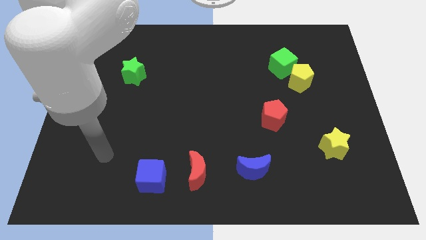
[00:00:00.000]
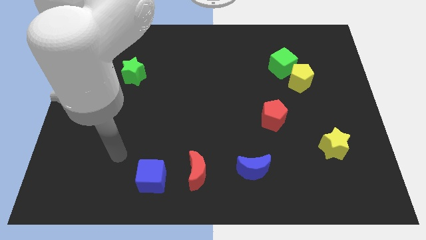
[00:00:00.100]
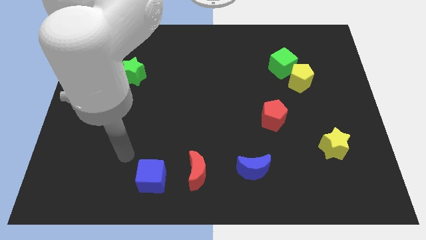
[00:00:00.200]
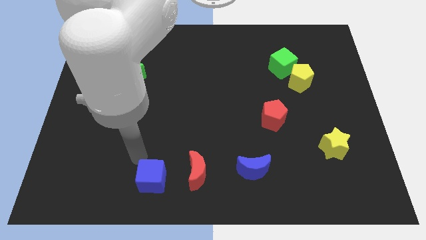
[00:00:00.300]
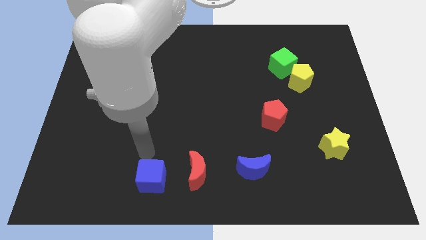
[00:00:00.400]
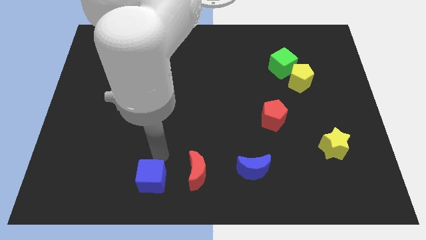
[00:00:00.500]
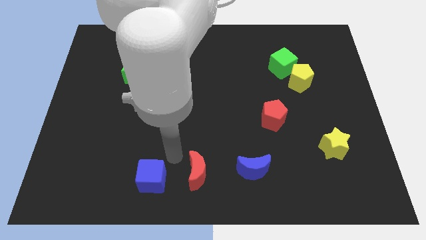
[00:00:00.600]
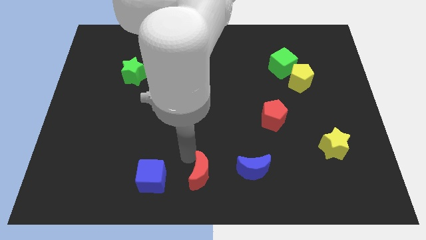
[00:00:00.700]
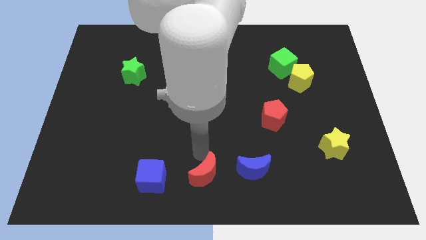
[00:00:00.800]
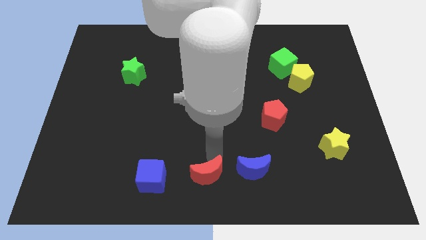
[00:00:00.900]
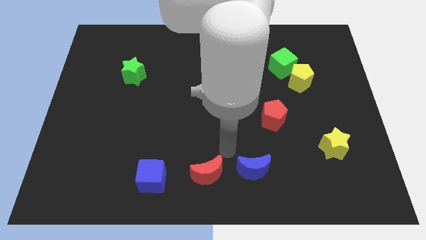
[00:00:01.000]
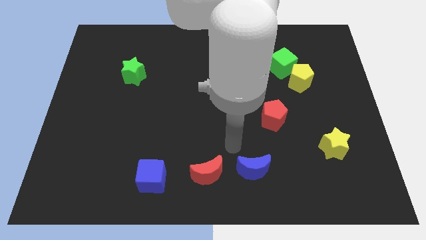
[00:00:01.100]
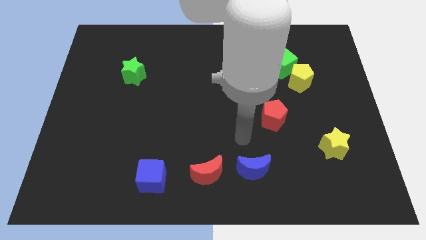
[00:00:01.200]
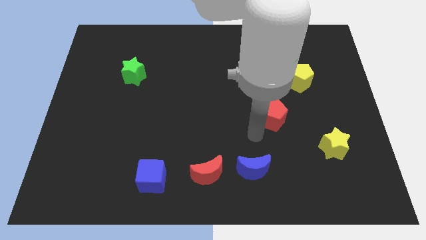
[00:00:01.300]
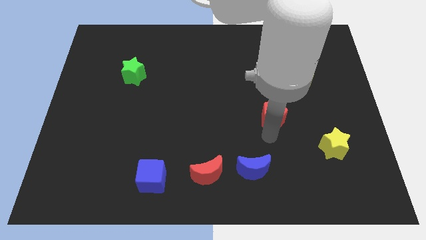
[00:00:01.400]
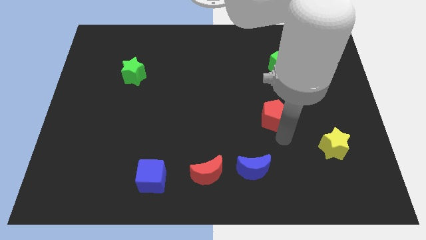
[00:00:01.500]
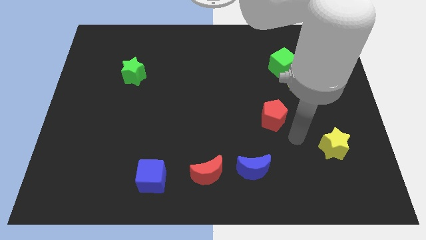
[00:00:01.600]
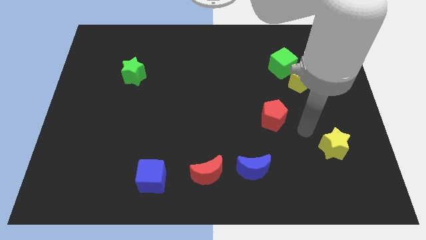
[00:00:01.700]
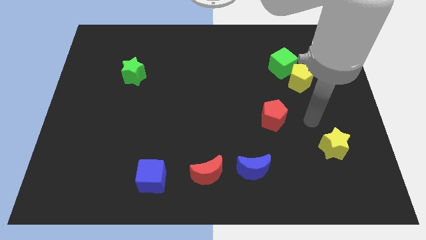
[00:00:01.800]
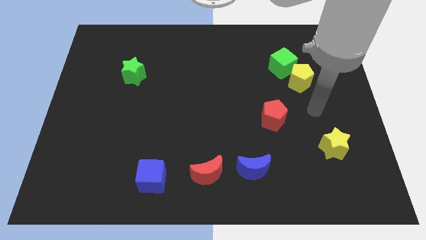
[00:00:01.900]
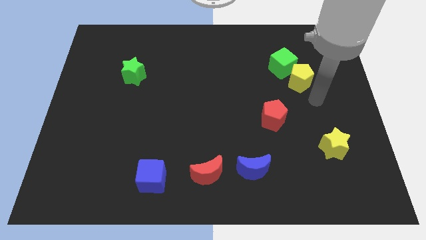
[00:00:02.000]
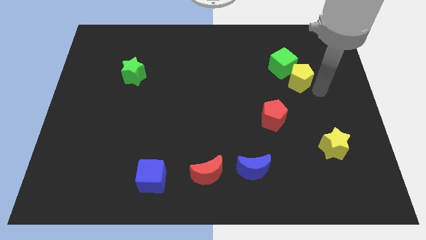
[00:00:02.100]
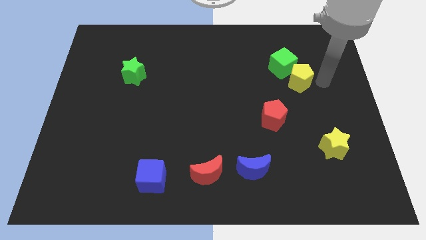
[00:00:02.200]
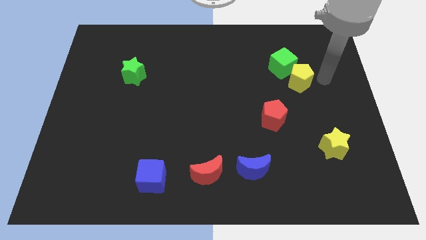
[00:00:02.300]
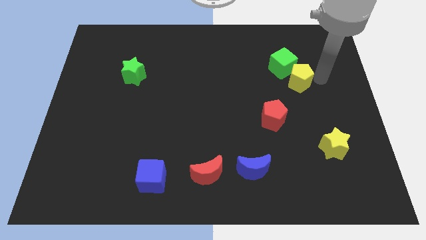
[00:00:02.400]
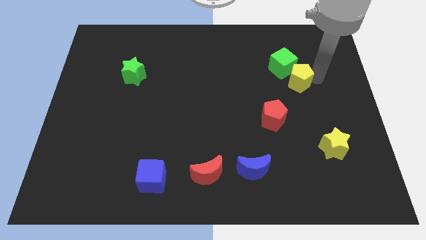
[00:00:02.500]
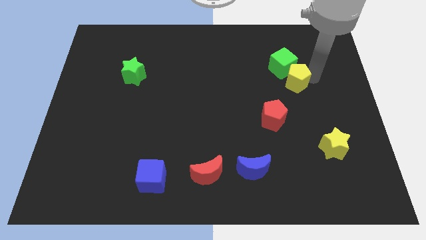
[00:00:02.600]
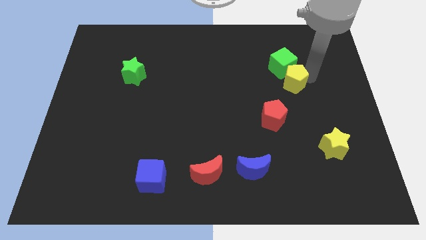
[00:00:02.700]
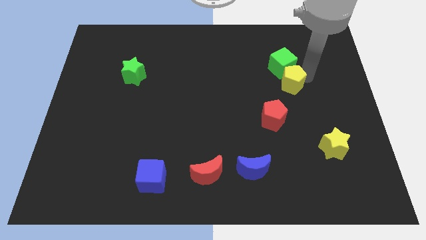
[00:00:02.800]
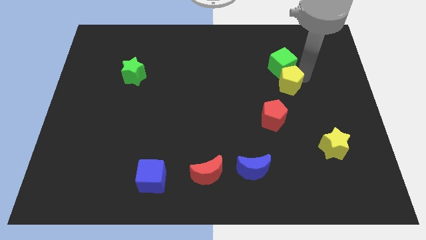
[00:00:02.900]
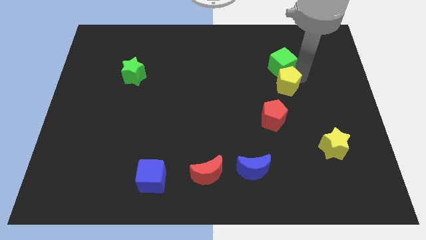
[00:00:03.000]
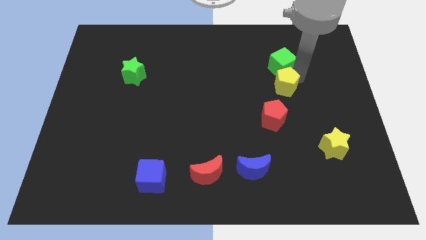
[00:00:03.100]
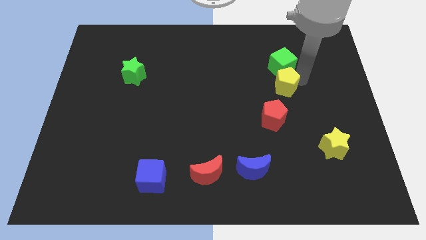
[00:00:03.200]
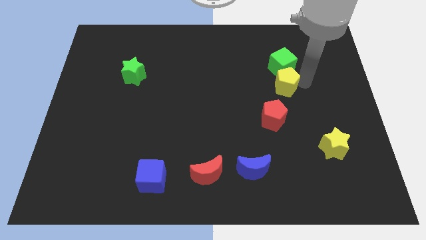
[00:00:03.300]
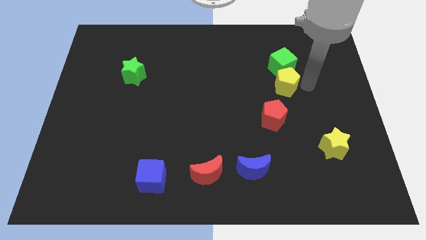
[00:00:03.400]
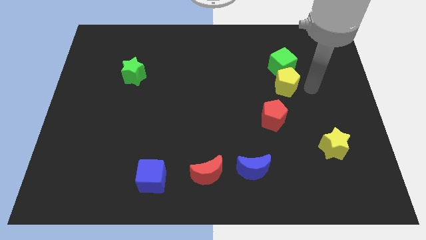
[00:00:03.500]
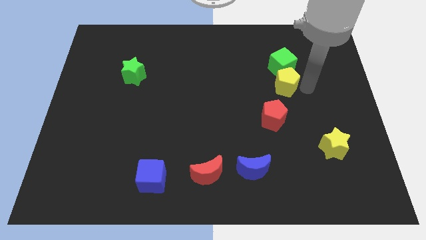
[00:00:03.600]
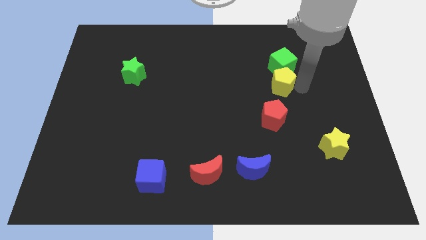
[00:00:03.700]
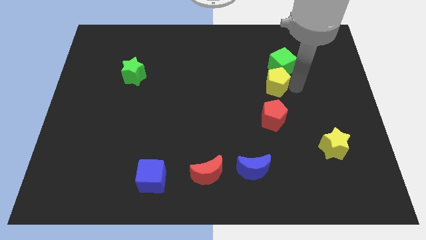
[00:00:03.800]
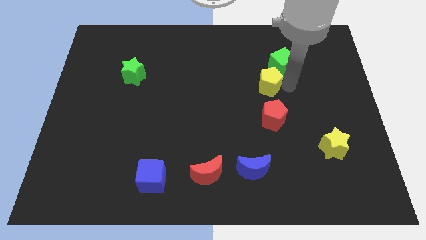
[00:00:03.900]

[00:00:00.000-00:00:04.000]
slide the yellow pentagon to the left slightly

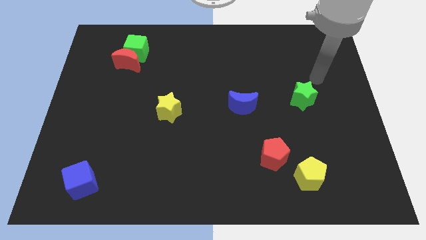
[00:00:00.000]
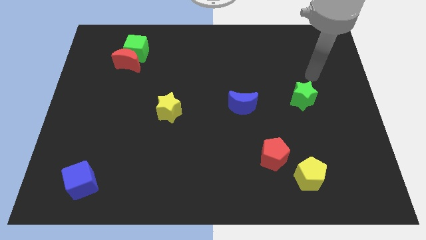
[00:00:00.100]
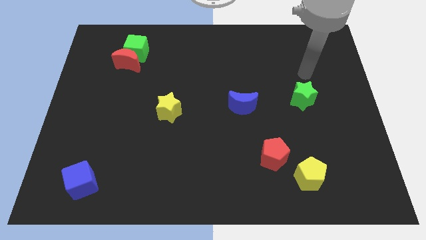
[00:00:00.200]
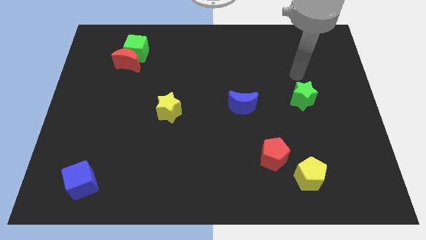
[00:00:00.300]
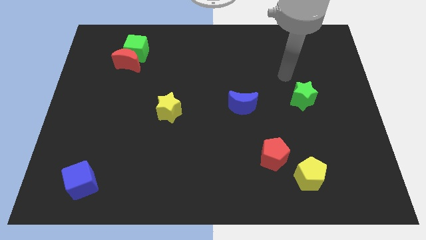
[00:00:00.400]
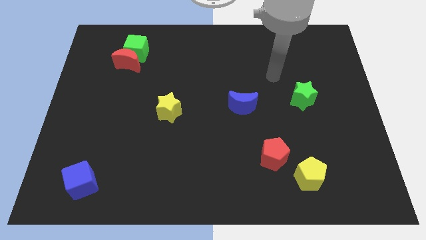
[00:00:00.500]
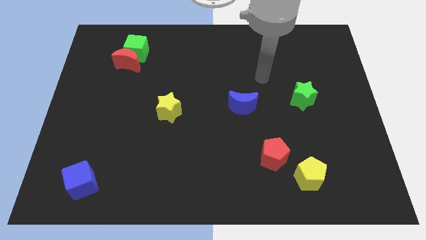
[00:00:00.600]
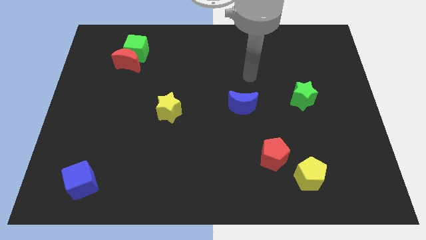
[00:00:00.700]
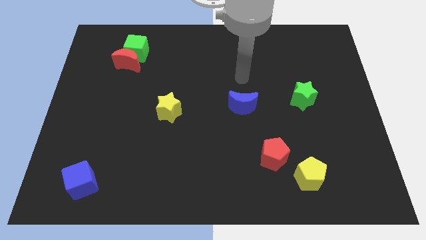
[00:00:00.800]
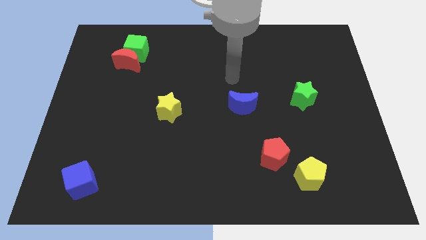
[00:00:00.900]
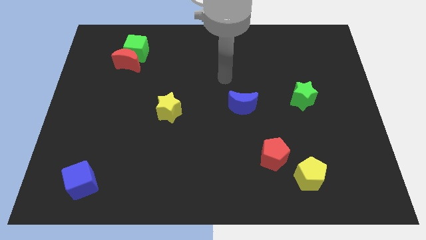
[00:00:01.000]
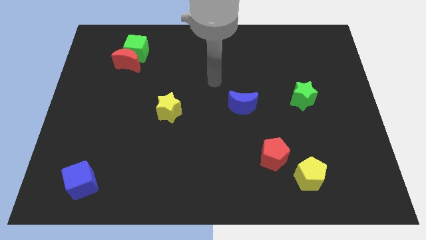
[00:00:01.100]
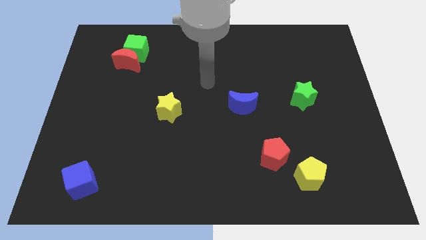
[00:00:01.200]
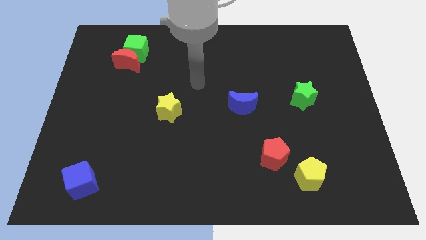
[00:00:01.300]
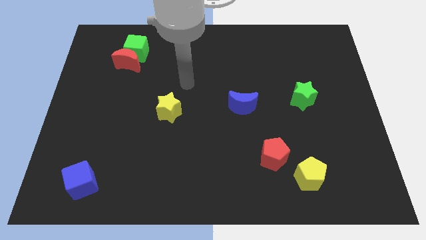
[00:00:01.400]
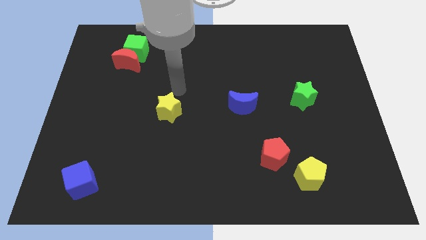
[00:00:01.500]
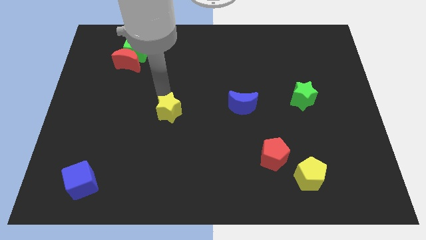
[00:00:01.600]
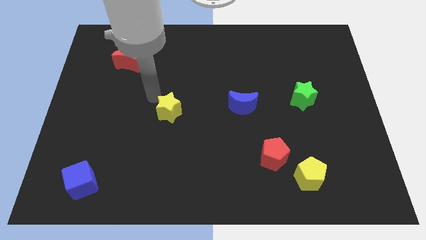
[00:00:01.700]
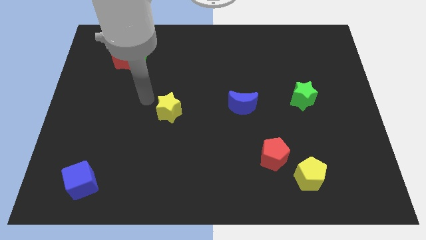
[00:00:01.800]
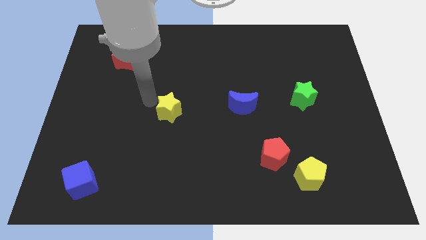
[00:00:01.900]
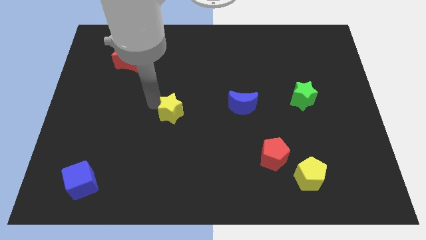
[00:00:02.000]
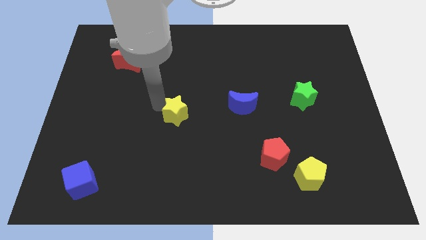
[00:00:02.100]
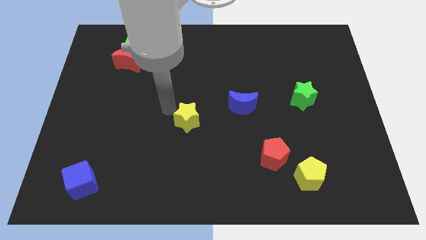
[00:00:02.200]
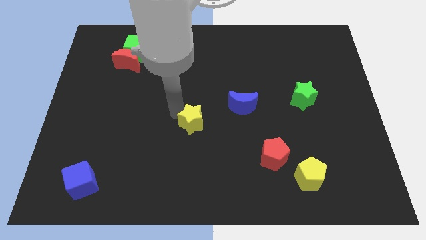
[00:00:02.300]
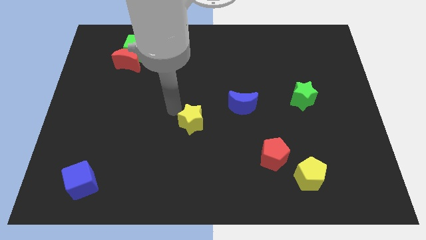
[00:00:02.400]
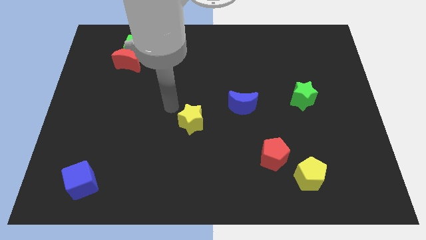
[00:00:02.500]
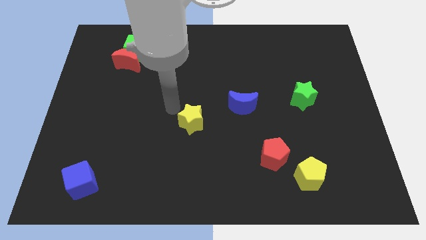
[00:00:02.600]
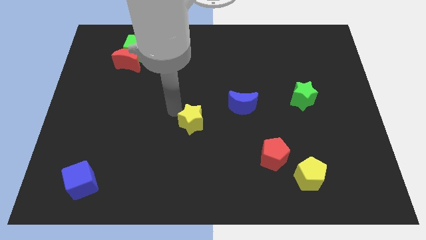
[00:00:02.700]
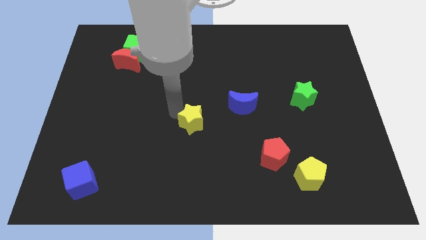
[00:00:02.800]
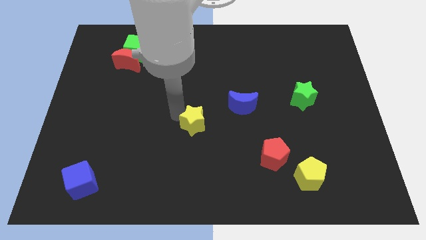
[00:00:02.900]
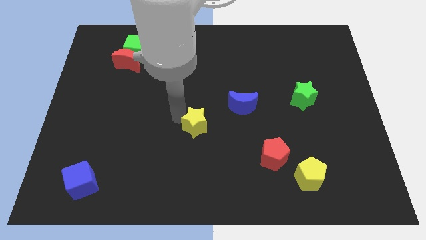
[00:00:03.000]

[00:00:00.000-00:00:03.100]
slightly move the yellow star down and then to the right

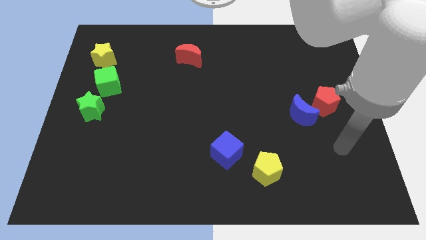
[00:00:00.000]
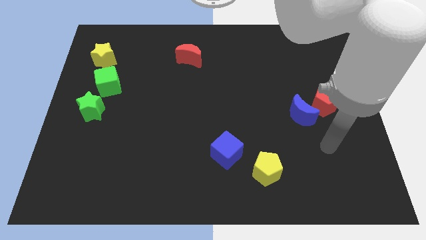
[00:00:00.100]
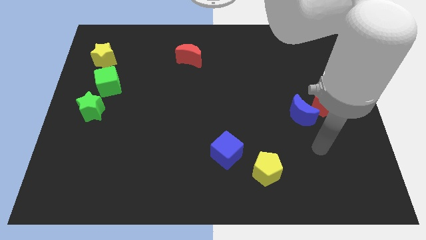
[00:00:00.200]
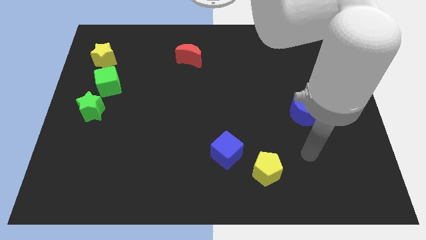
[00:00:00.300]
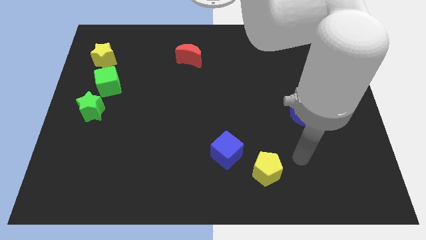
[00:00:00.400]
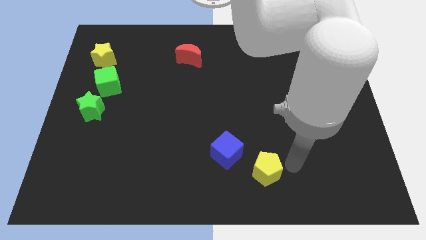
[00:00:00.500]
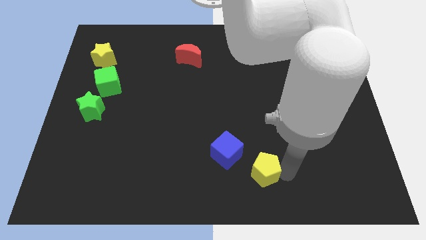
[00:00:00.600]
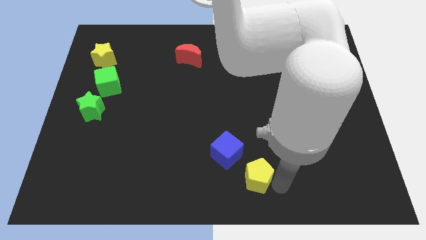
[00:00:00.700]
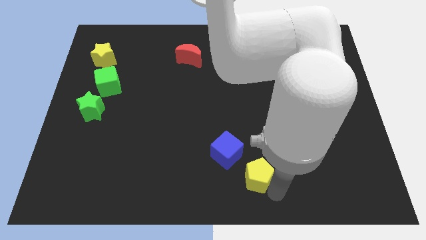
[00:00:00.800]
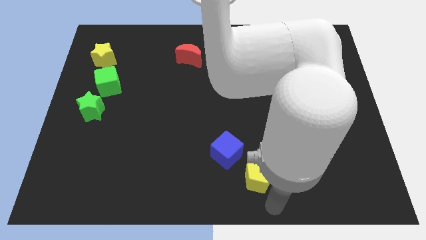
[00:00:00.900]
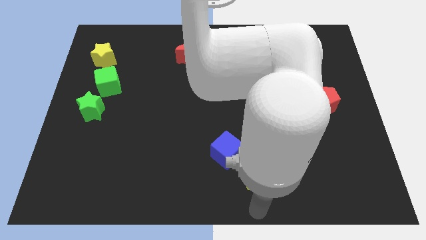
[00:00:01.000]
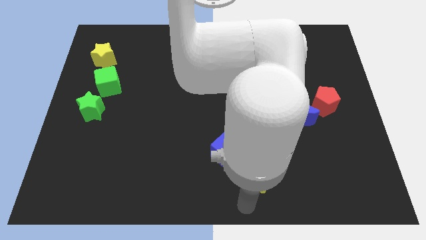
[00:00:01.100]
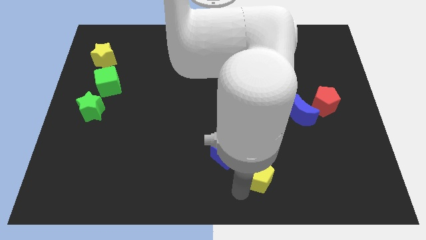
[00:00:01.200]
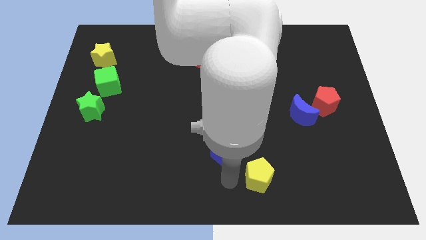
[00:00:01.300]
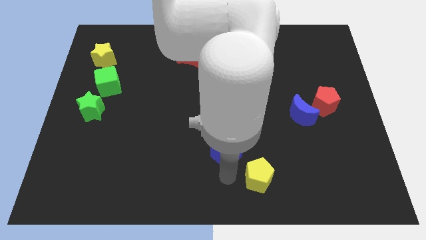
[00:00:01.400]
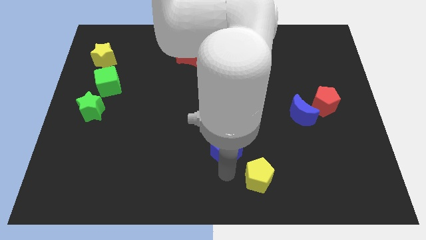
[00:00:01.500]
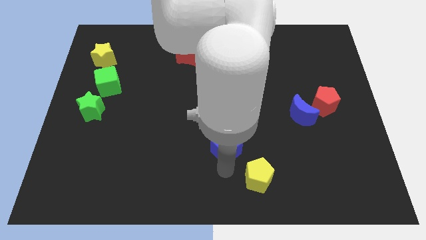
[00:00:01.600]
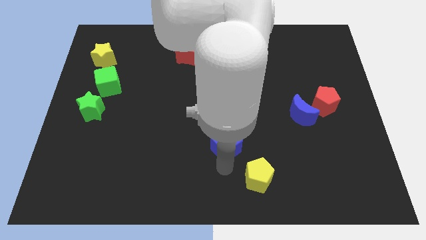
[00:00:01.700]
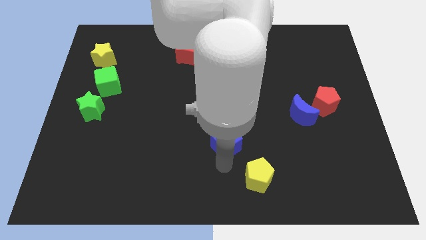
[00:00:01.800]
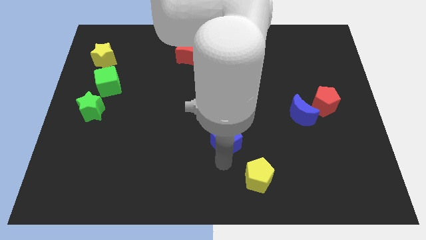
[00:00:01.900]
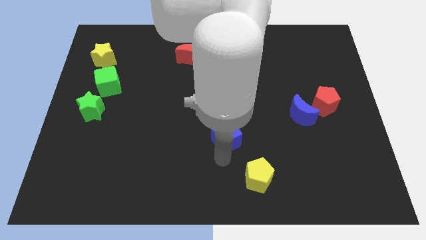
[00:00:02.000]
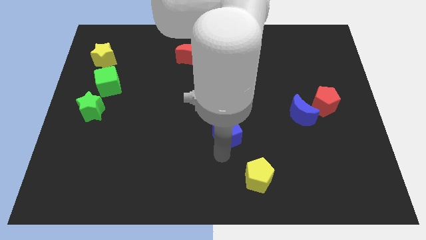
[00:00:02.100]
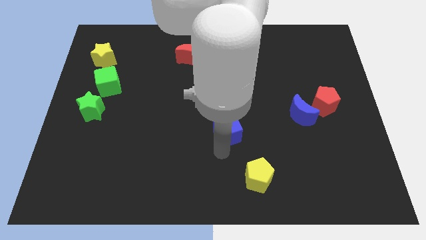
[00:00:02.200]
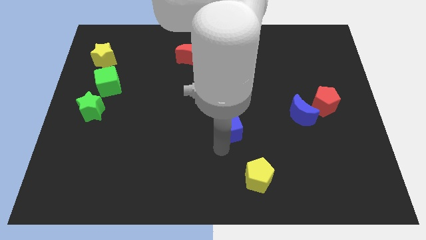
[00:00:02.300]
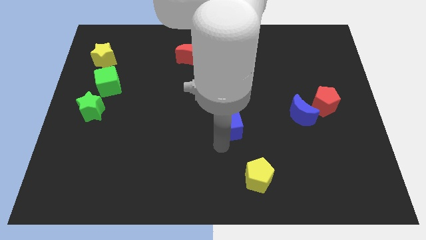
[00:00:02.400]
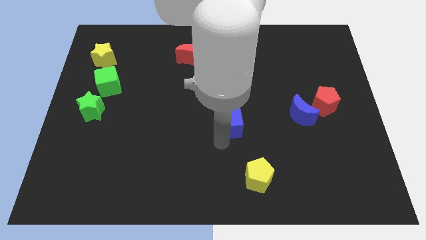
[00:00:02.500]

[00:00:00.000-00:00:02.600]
slightly slide the blue cube up
